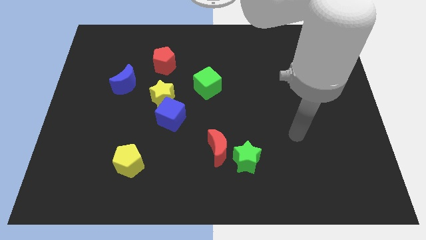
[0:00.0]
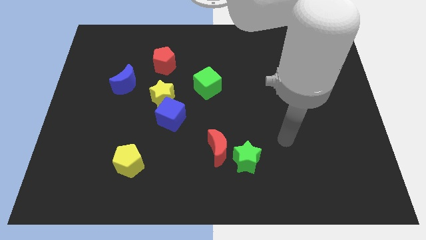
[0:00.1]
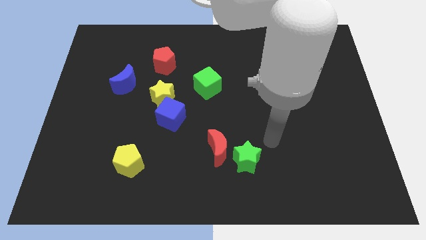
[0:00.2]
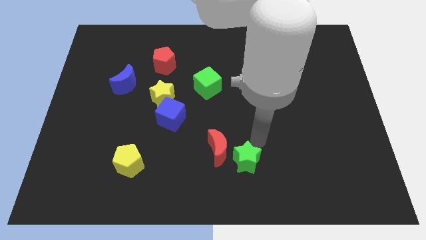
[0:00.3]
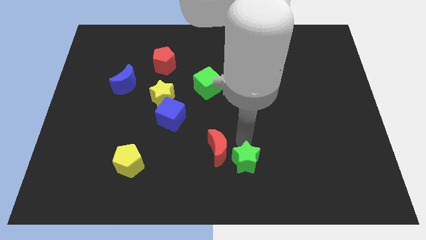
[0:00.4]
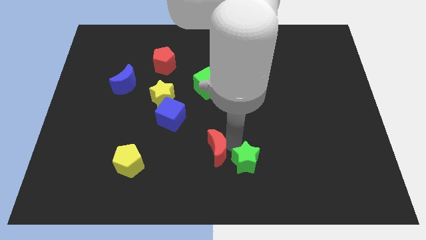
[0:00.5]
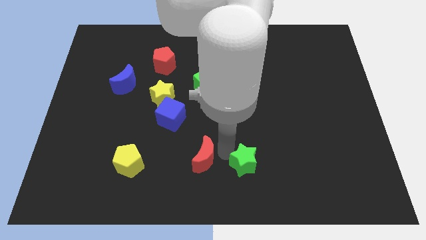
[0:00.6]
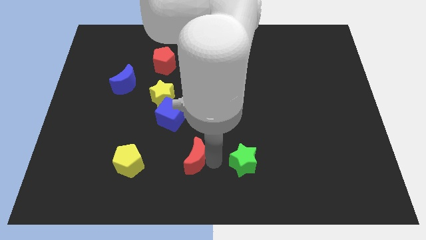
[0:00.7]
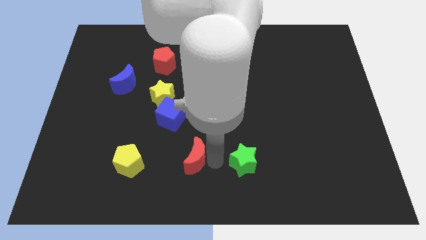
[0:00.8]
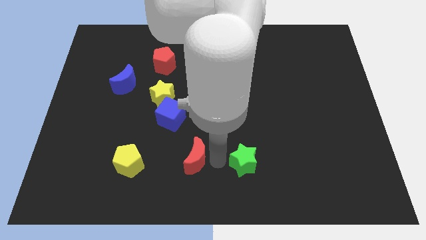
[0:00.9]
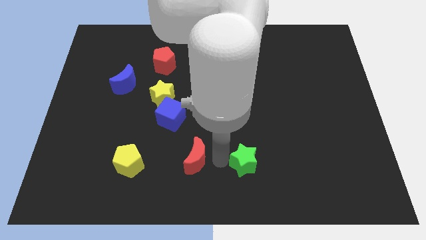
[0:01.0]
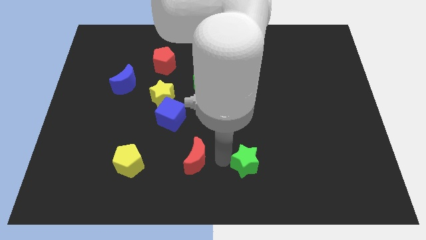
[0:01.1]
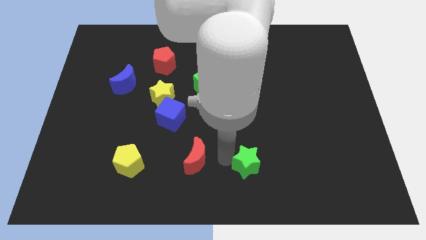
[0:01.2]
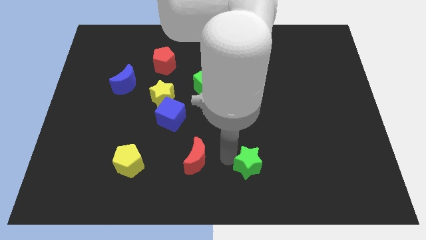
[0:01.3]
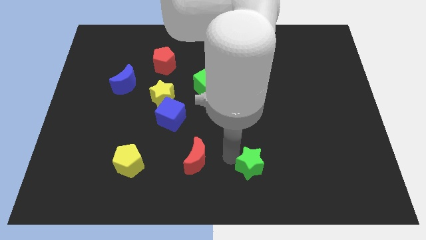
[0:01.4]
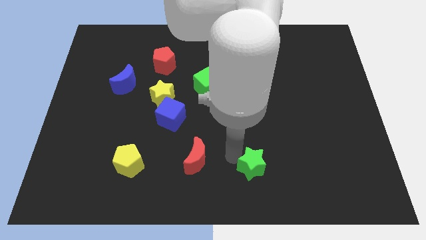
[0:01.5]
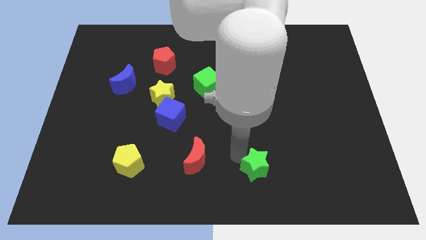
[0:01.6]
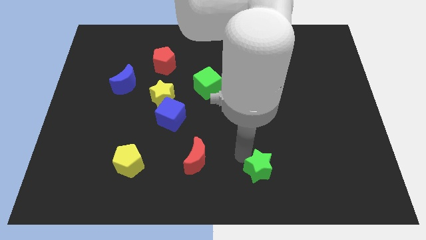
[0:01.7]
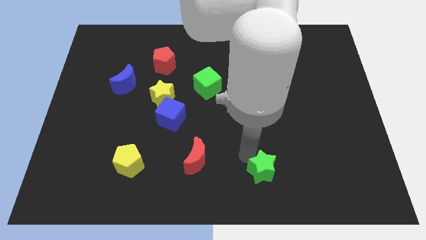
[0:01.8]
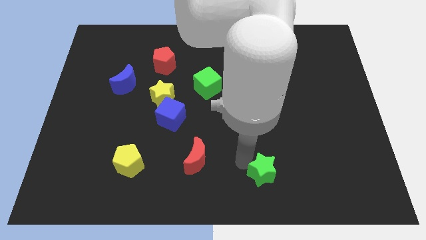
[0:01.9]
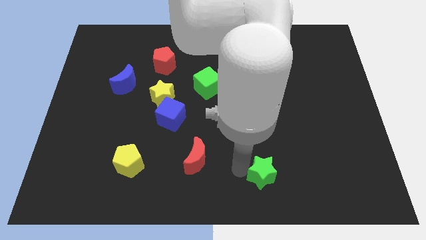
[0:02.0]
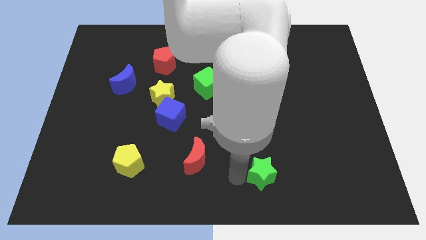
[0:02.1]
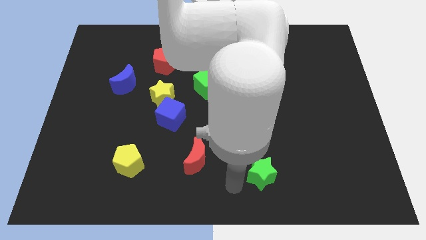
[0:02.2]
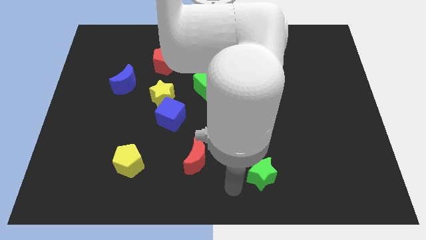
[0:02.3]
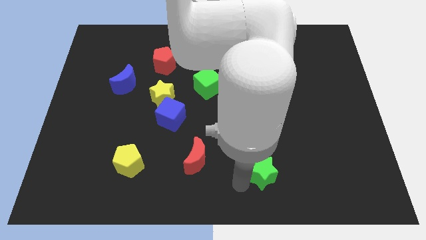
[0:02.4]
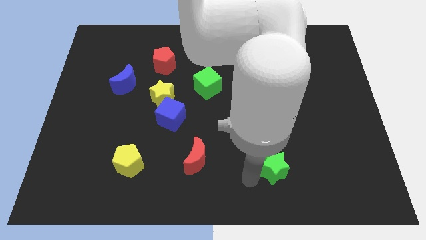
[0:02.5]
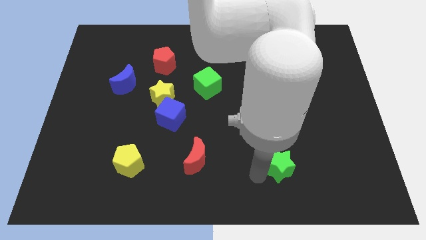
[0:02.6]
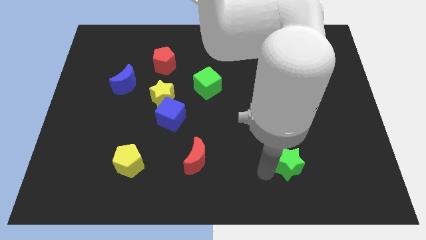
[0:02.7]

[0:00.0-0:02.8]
slide the green star slightly to the right

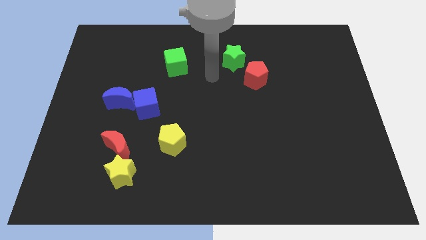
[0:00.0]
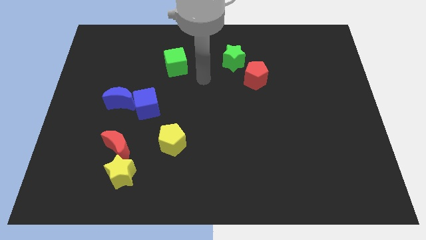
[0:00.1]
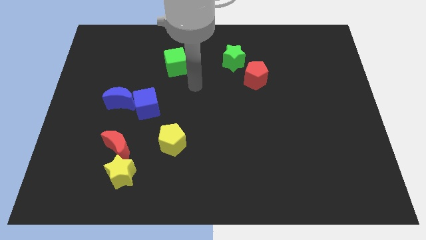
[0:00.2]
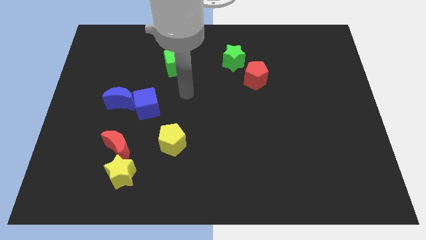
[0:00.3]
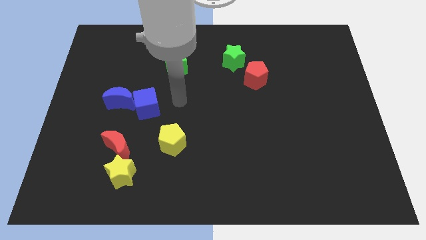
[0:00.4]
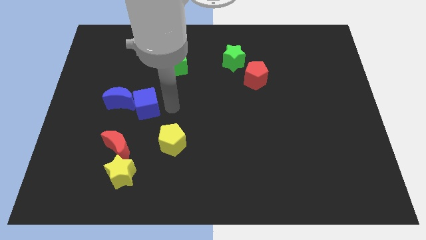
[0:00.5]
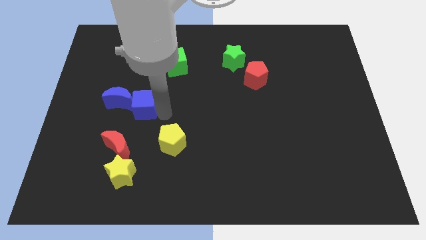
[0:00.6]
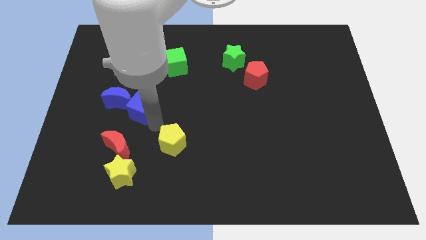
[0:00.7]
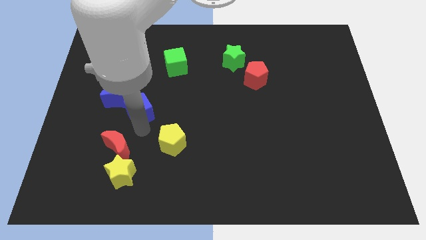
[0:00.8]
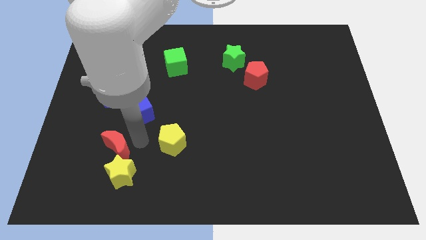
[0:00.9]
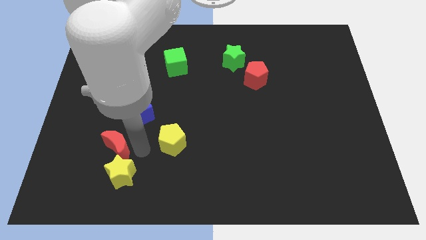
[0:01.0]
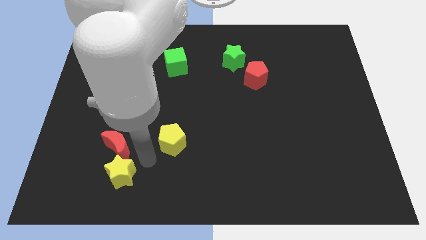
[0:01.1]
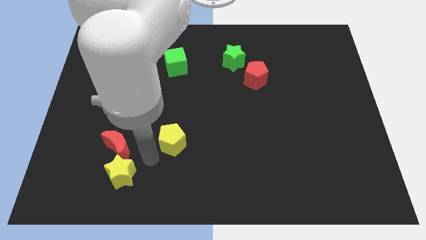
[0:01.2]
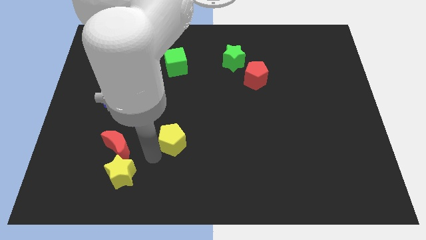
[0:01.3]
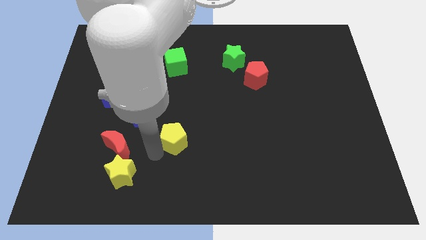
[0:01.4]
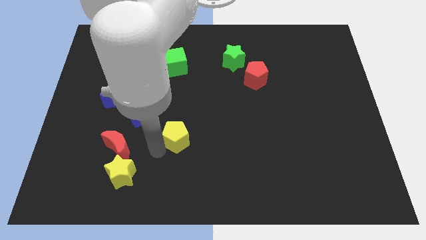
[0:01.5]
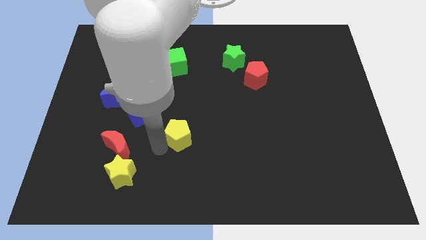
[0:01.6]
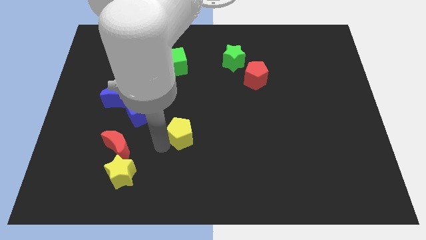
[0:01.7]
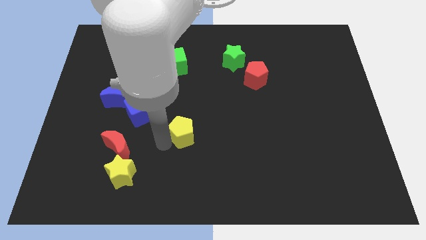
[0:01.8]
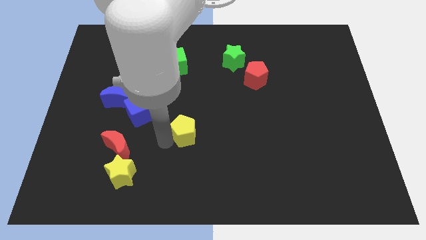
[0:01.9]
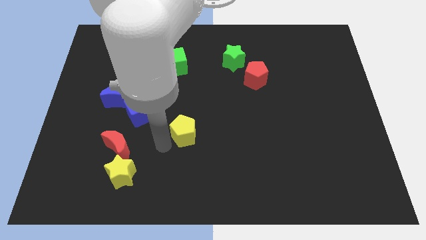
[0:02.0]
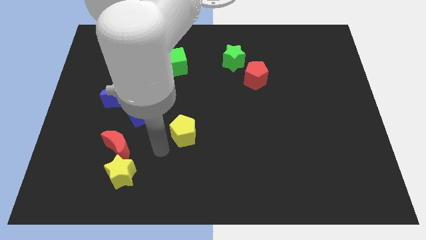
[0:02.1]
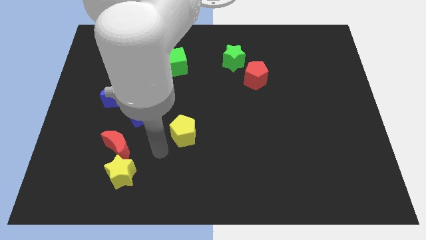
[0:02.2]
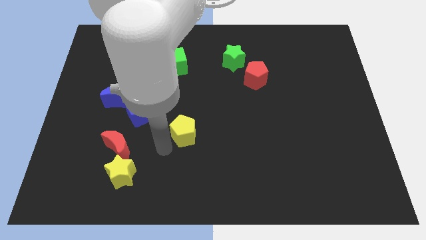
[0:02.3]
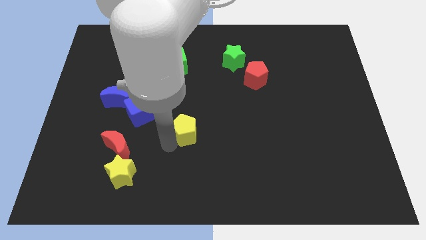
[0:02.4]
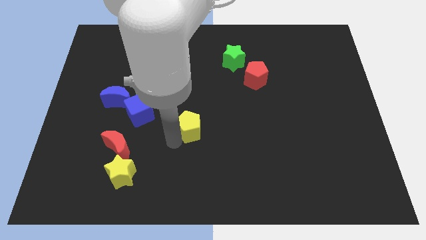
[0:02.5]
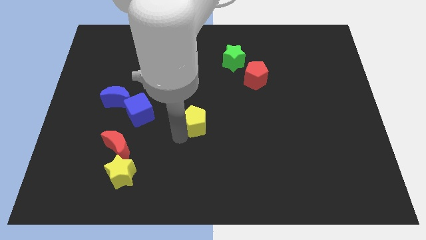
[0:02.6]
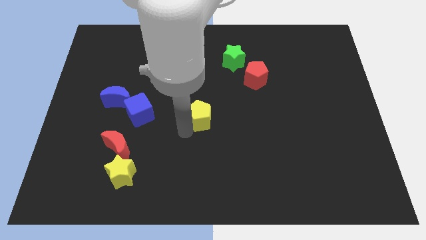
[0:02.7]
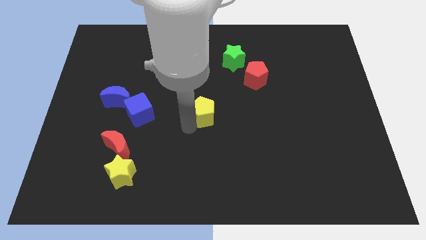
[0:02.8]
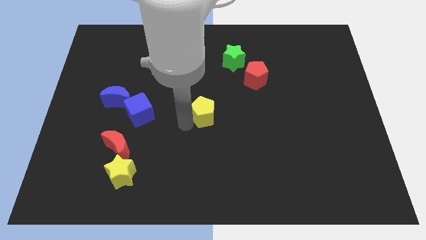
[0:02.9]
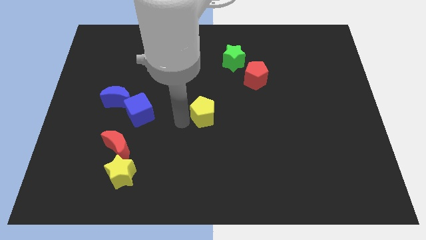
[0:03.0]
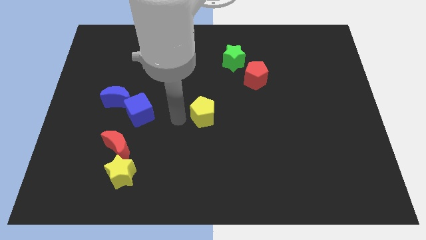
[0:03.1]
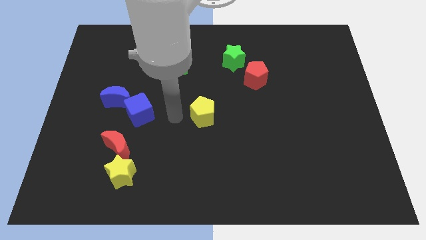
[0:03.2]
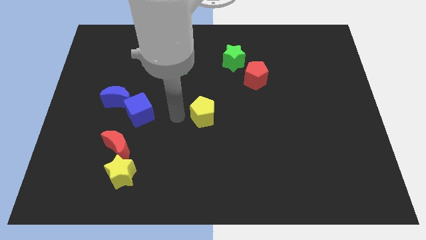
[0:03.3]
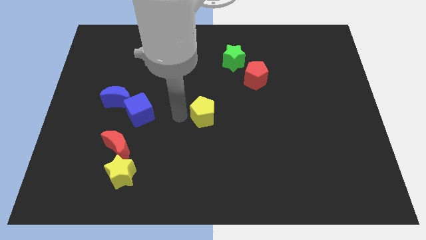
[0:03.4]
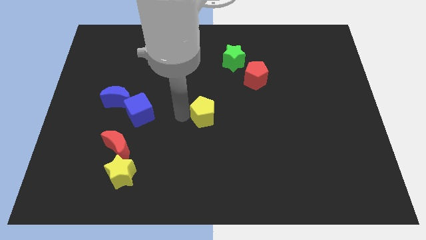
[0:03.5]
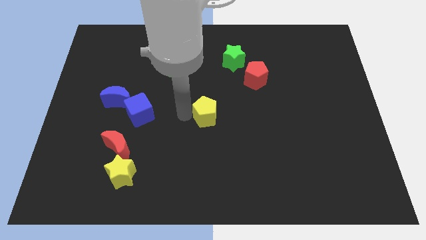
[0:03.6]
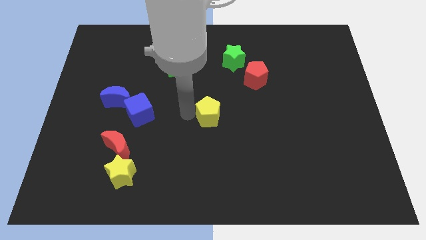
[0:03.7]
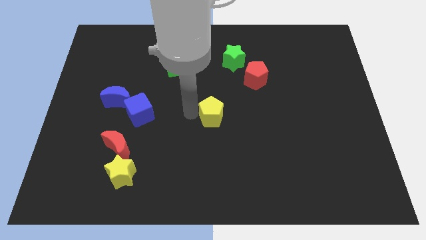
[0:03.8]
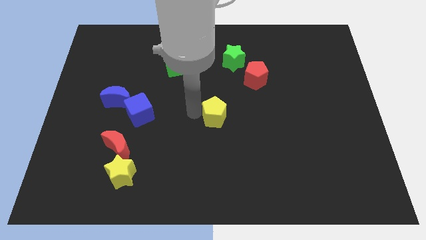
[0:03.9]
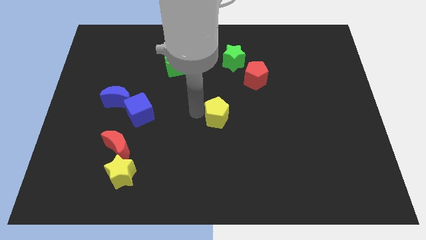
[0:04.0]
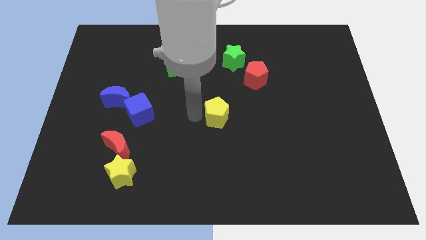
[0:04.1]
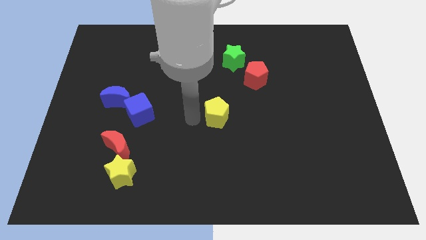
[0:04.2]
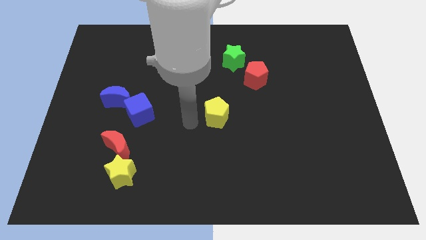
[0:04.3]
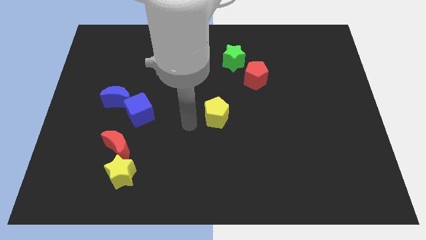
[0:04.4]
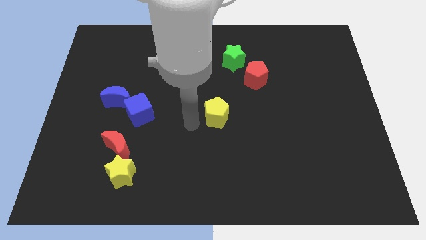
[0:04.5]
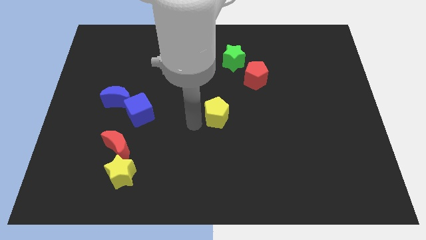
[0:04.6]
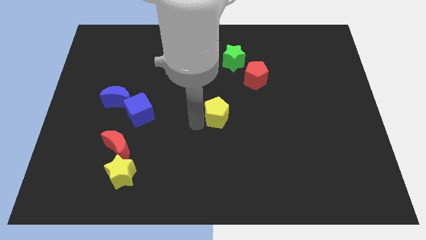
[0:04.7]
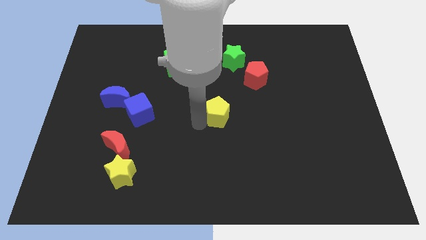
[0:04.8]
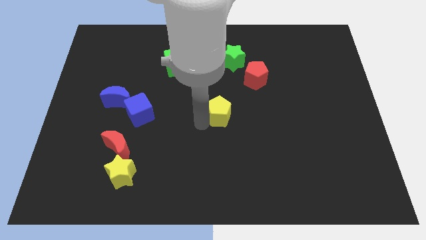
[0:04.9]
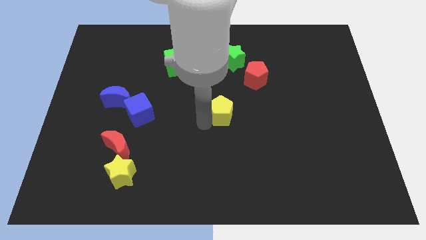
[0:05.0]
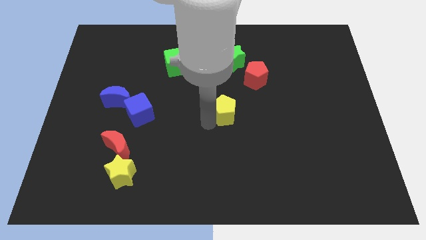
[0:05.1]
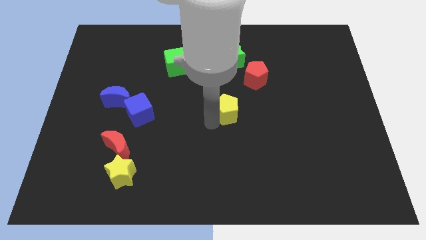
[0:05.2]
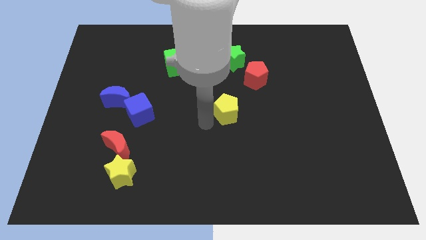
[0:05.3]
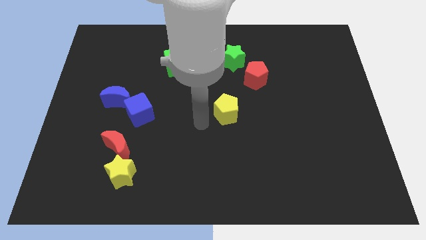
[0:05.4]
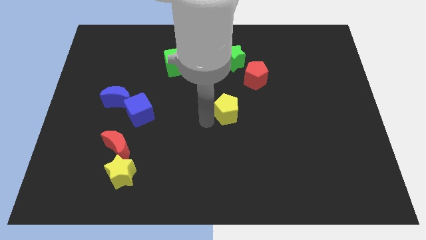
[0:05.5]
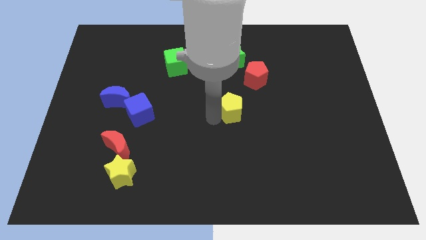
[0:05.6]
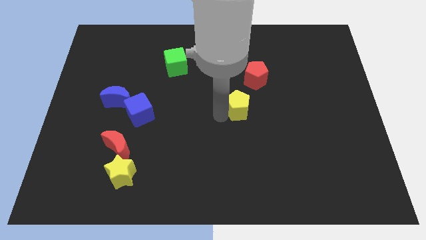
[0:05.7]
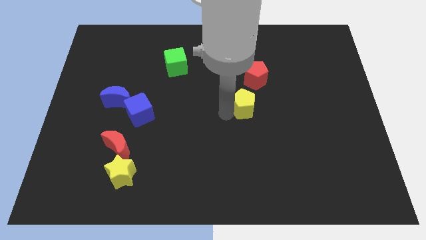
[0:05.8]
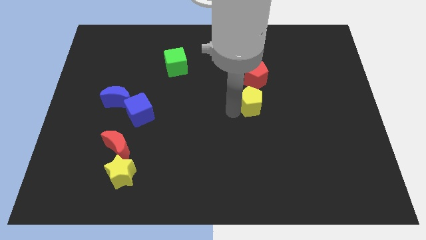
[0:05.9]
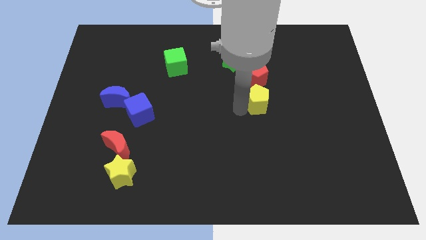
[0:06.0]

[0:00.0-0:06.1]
slide the yellow pentagon diagonally upwards and to the right
